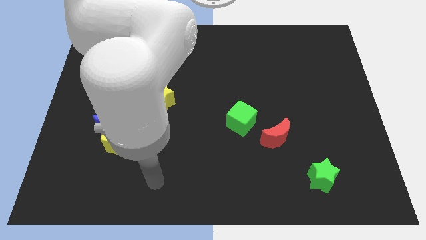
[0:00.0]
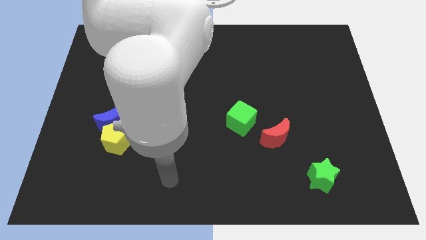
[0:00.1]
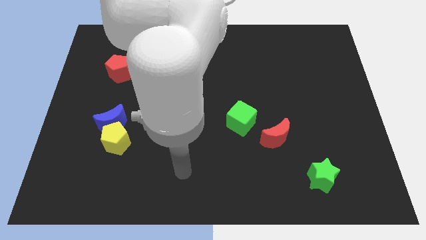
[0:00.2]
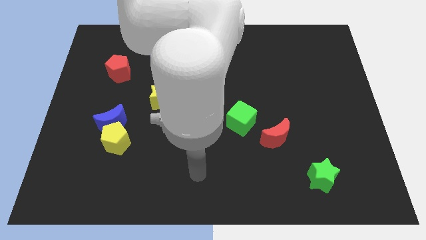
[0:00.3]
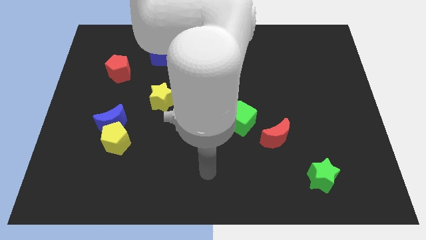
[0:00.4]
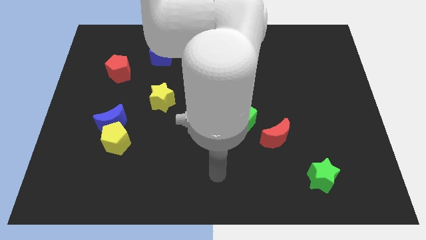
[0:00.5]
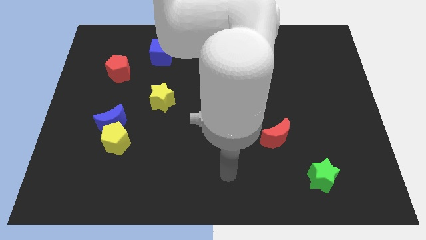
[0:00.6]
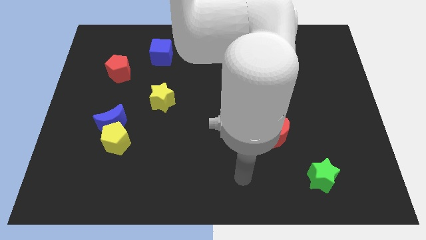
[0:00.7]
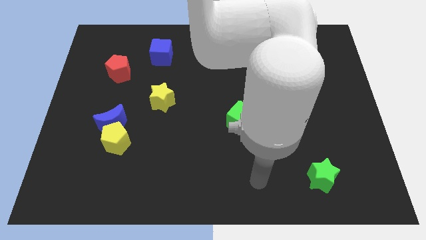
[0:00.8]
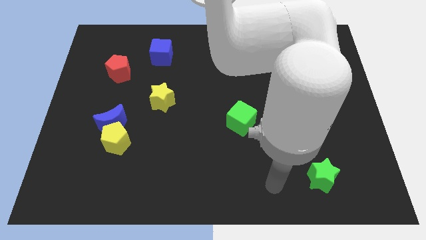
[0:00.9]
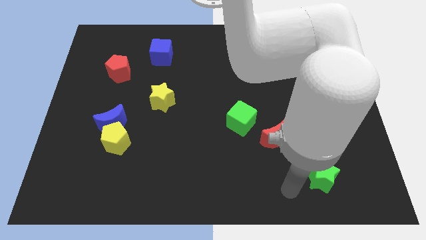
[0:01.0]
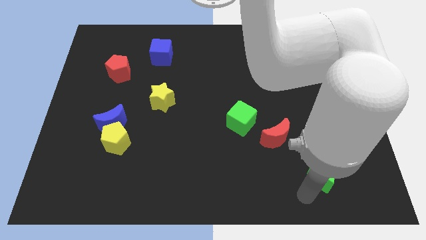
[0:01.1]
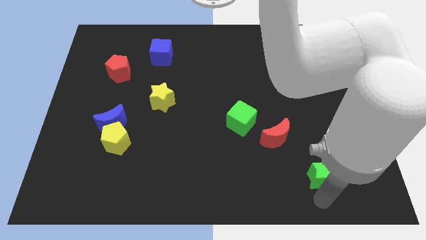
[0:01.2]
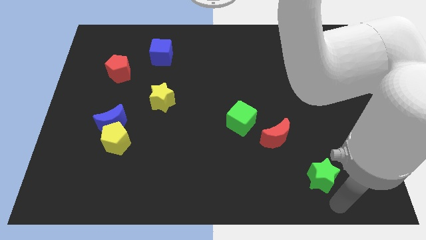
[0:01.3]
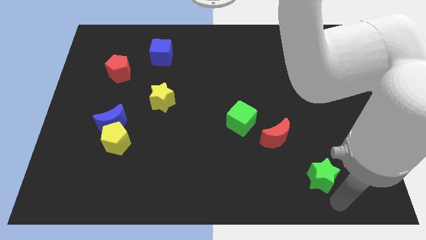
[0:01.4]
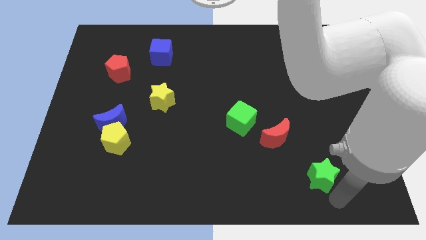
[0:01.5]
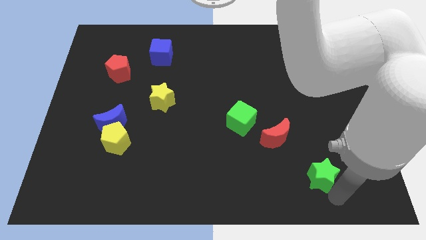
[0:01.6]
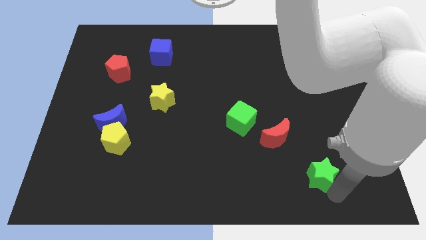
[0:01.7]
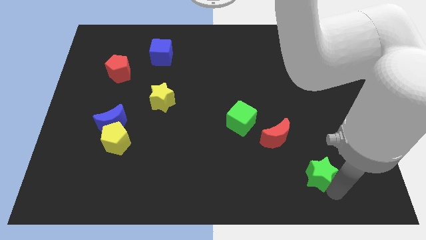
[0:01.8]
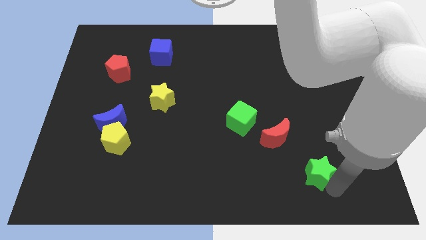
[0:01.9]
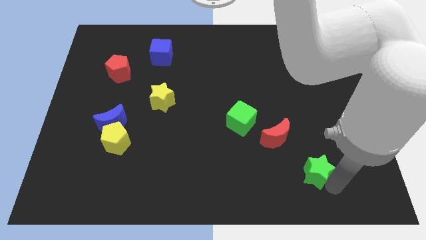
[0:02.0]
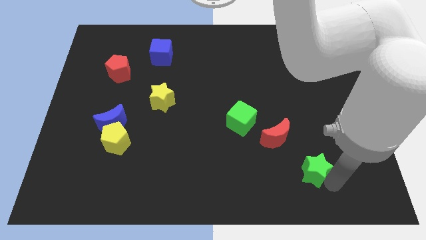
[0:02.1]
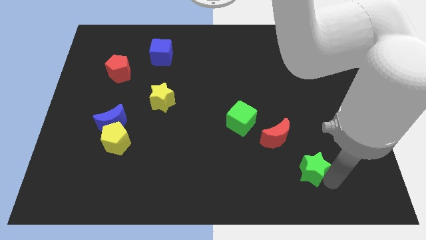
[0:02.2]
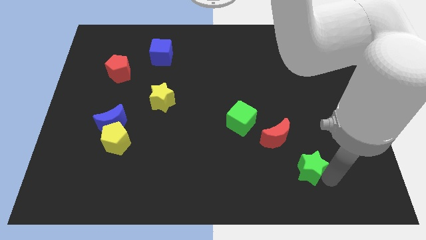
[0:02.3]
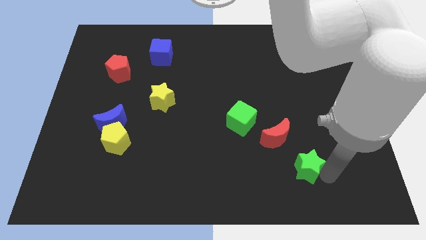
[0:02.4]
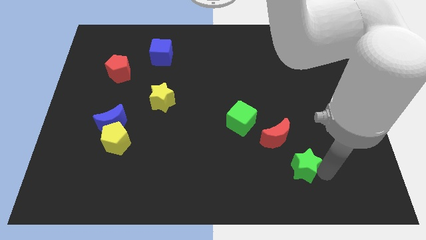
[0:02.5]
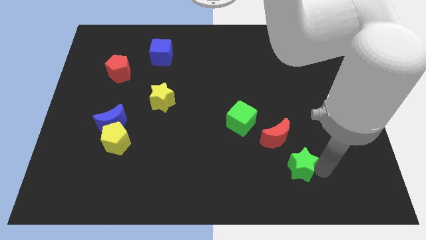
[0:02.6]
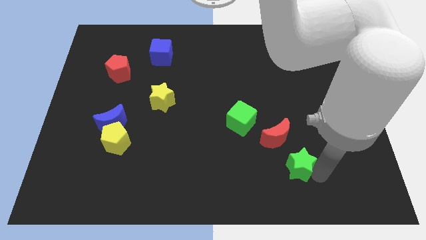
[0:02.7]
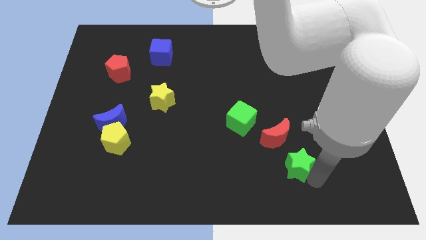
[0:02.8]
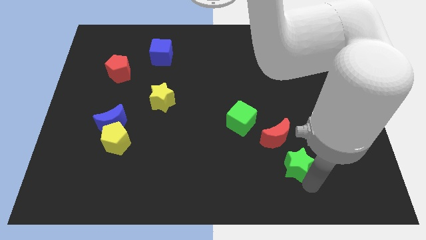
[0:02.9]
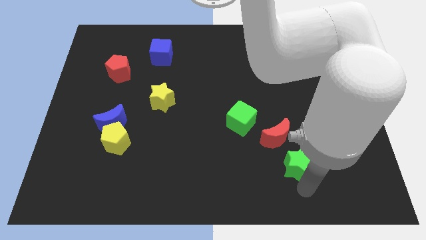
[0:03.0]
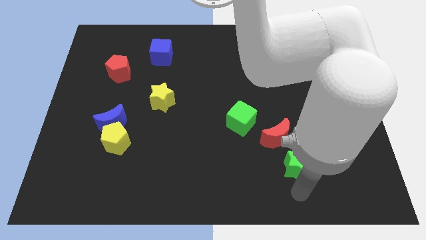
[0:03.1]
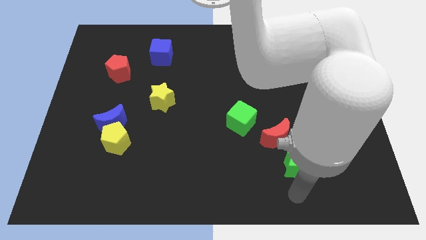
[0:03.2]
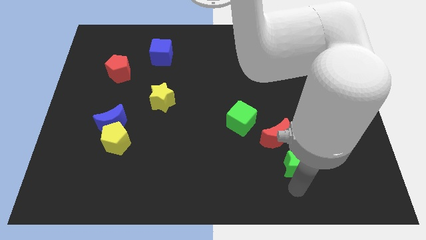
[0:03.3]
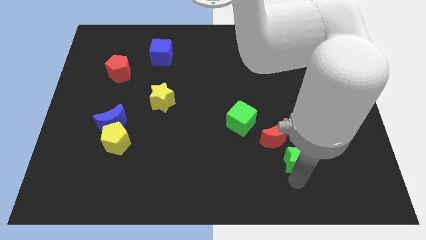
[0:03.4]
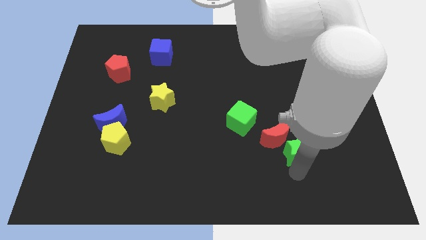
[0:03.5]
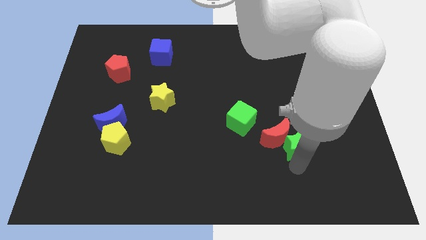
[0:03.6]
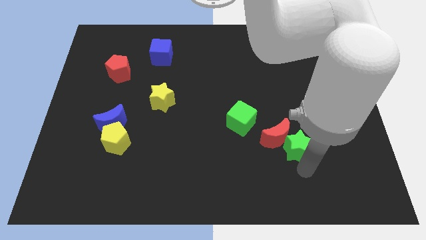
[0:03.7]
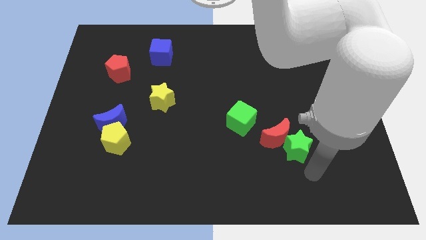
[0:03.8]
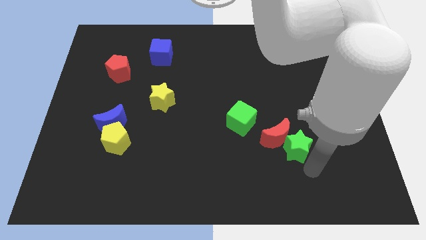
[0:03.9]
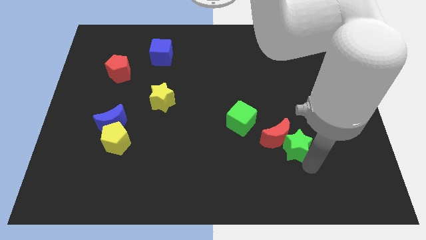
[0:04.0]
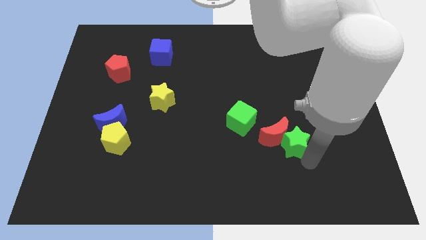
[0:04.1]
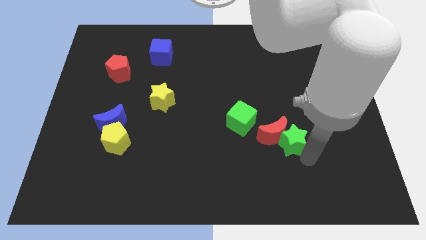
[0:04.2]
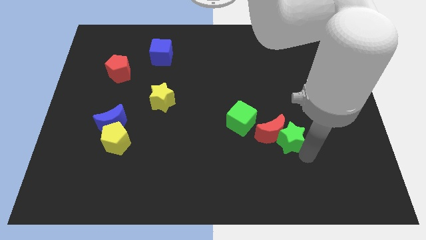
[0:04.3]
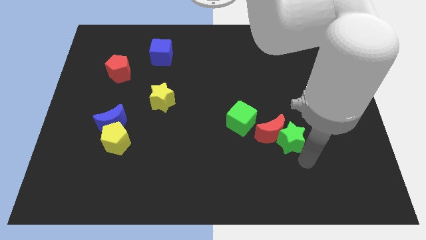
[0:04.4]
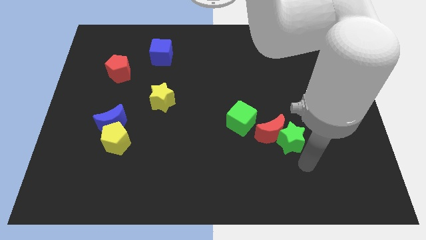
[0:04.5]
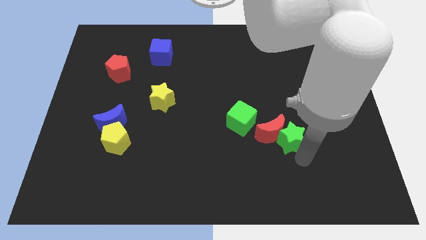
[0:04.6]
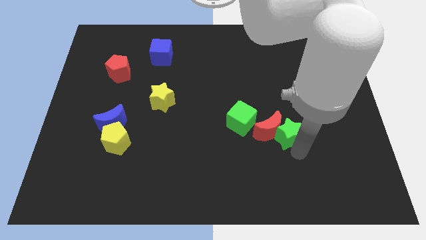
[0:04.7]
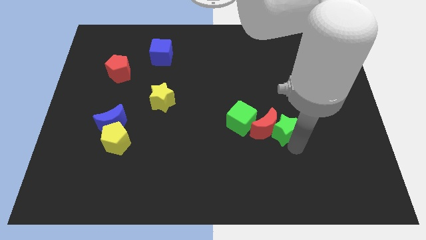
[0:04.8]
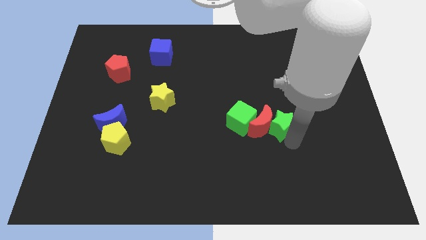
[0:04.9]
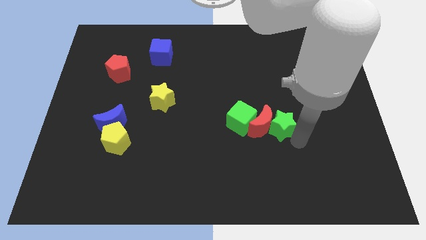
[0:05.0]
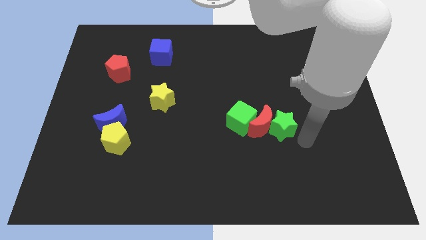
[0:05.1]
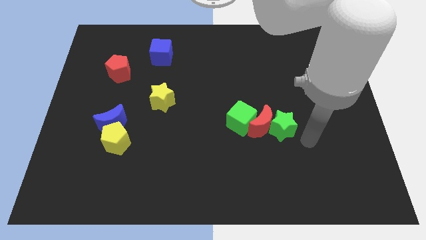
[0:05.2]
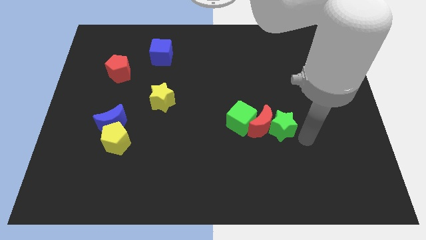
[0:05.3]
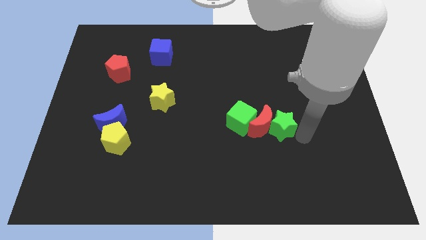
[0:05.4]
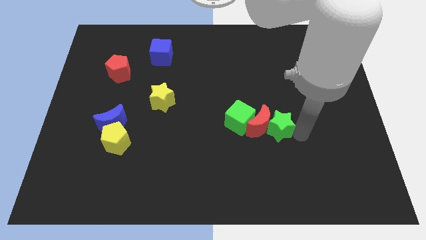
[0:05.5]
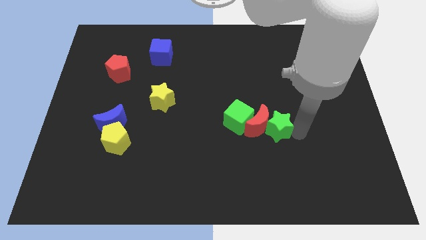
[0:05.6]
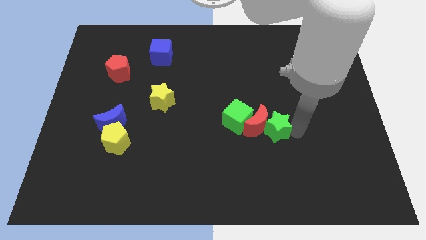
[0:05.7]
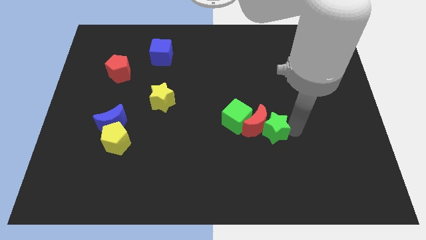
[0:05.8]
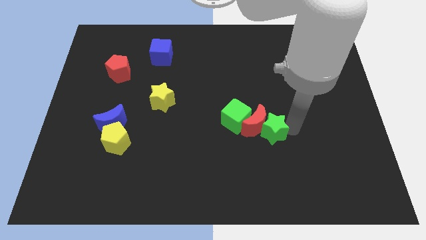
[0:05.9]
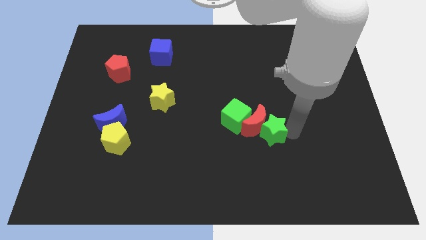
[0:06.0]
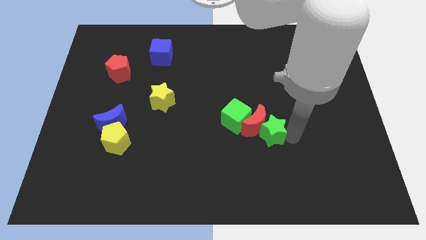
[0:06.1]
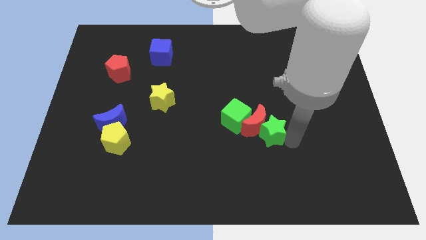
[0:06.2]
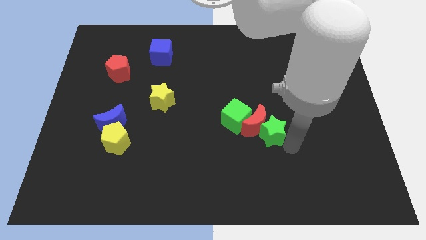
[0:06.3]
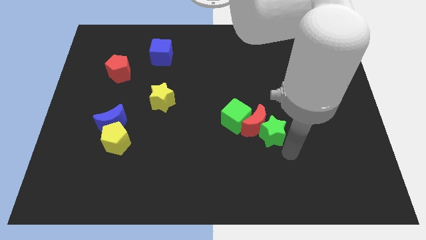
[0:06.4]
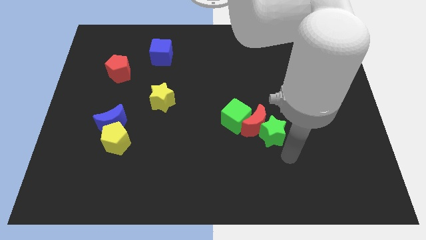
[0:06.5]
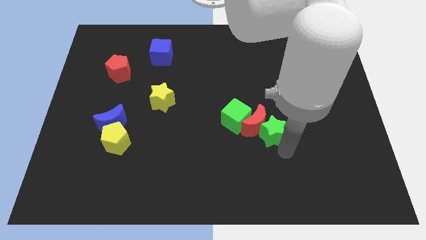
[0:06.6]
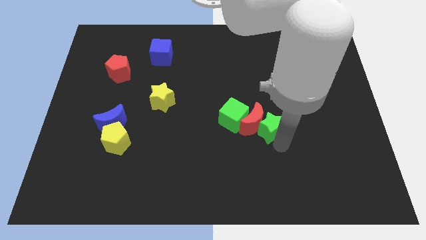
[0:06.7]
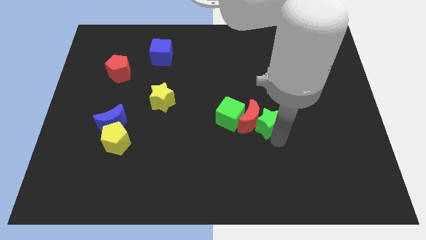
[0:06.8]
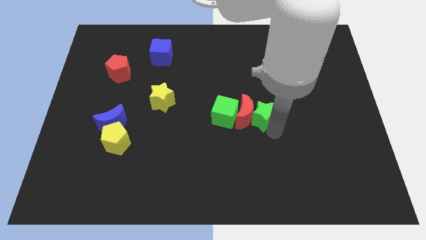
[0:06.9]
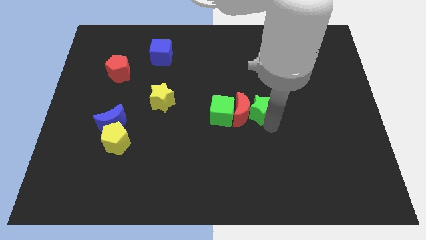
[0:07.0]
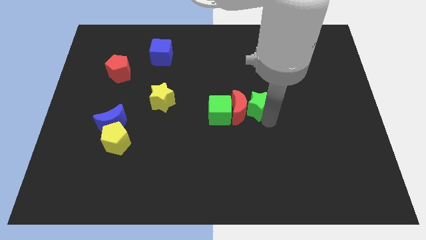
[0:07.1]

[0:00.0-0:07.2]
push the green star diagonally upwards and to the left

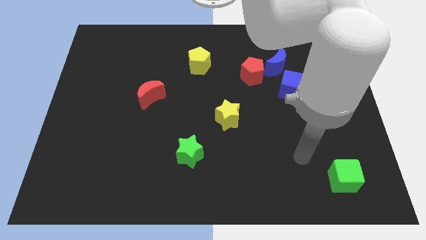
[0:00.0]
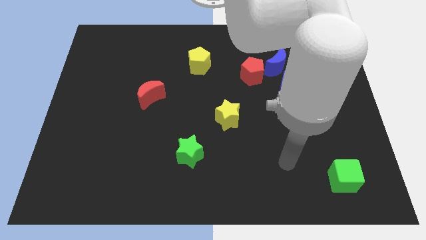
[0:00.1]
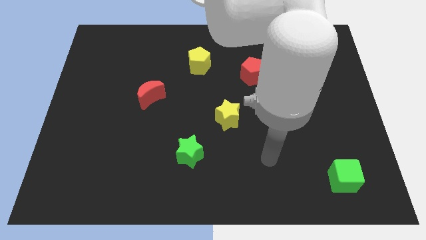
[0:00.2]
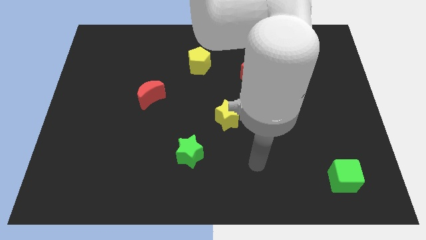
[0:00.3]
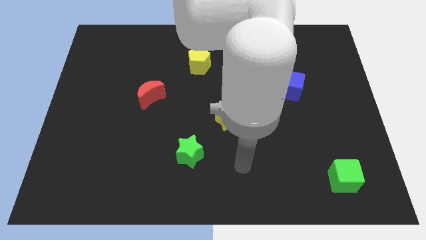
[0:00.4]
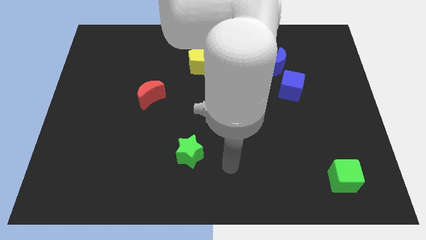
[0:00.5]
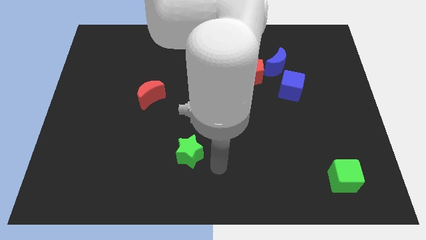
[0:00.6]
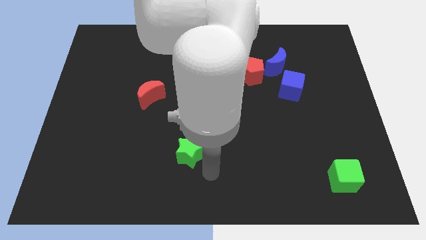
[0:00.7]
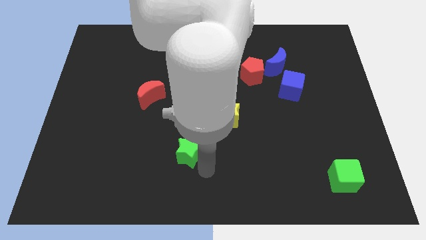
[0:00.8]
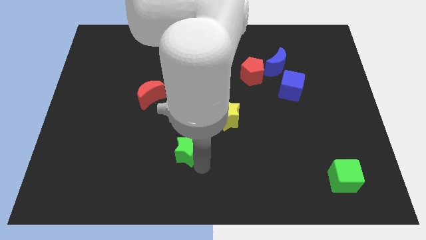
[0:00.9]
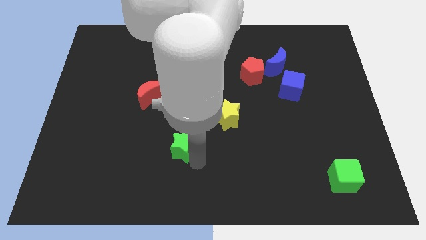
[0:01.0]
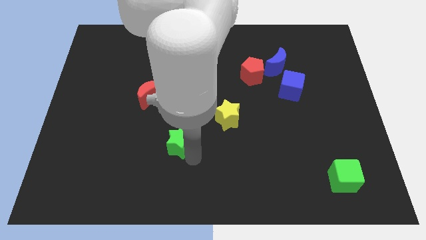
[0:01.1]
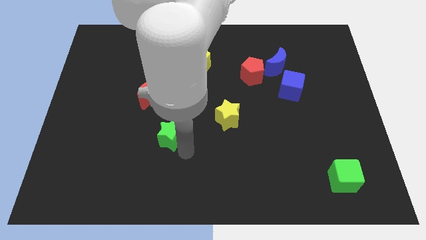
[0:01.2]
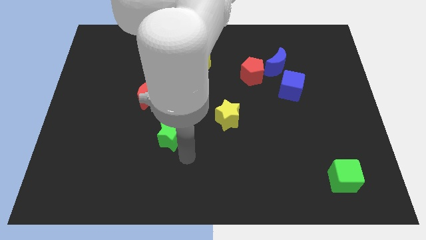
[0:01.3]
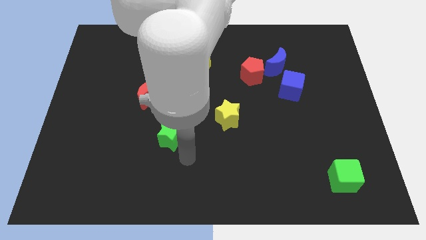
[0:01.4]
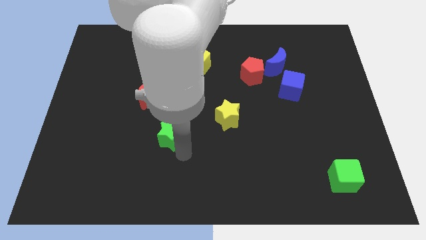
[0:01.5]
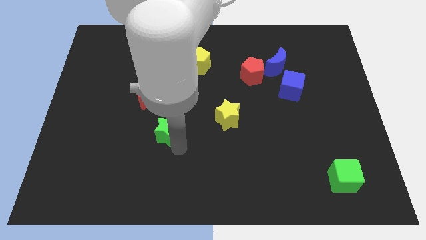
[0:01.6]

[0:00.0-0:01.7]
slide the green star a bit upwards and then left
